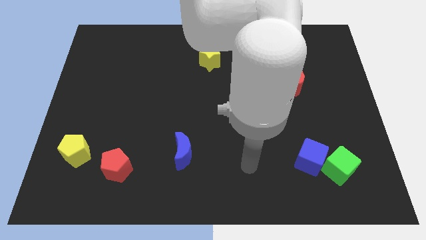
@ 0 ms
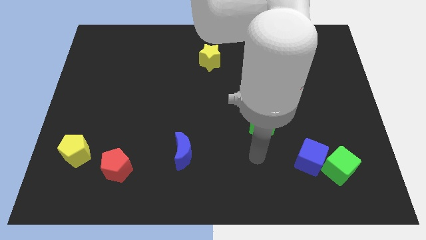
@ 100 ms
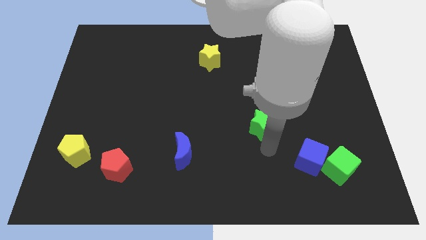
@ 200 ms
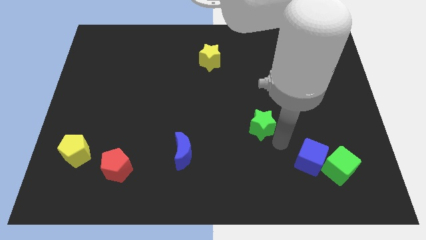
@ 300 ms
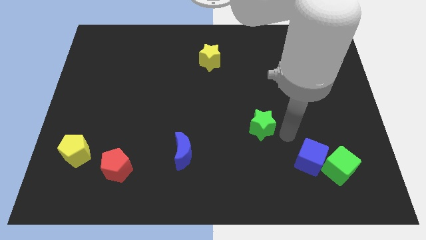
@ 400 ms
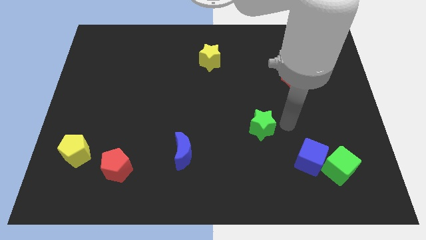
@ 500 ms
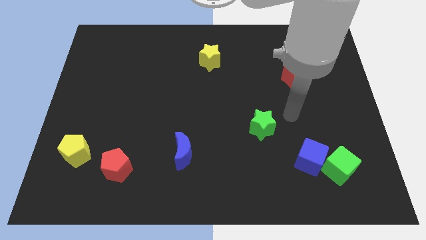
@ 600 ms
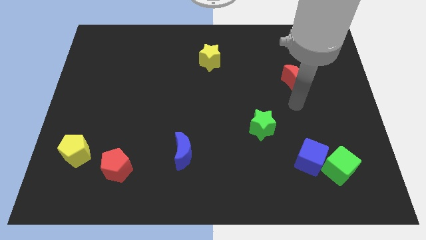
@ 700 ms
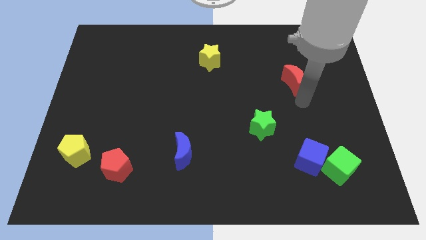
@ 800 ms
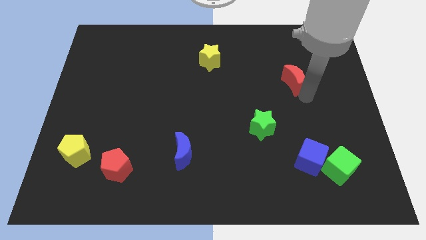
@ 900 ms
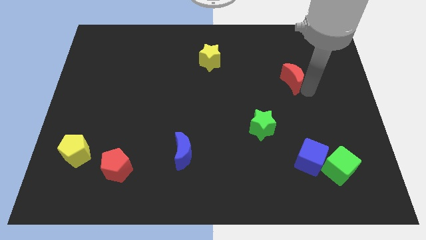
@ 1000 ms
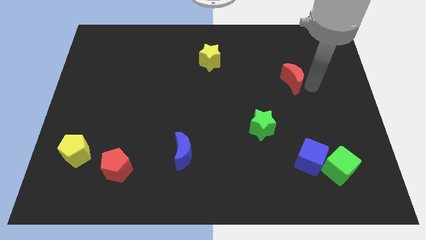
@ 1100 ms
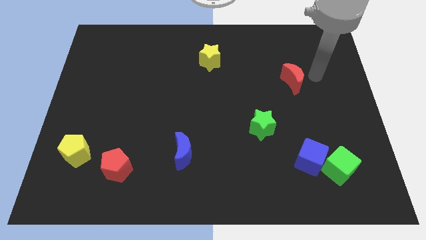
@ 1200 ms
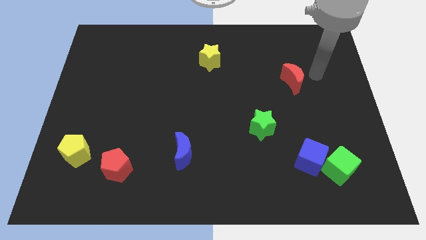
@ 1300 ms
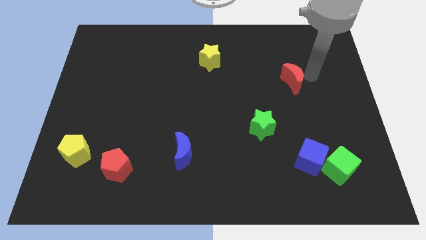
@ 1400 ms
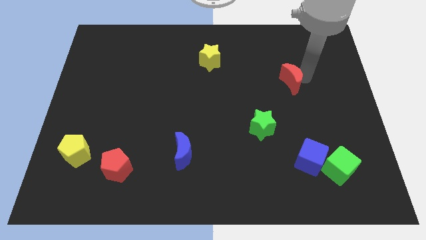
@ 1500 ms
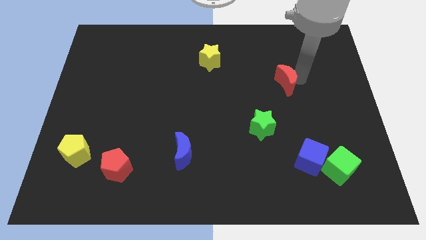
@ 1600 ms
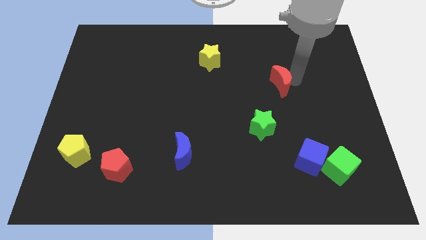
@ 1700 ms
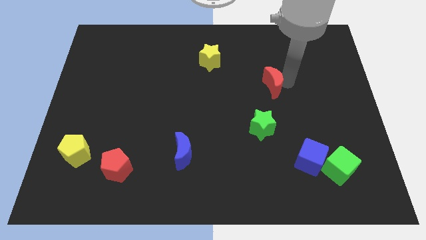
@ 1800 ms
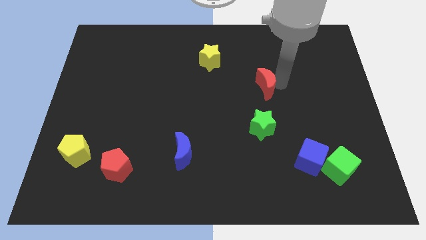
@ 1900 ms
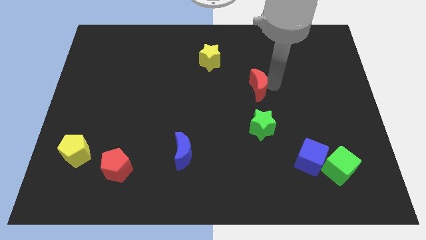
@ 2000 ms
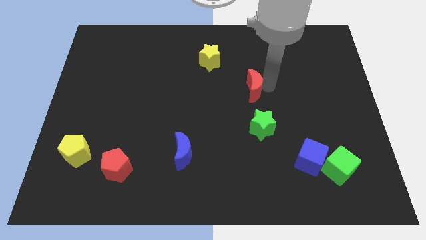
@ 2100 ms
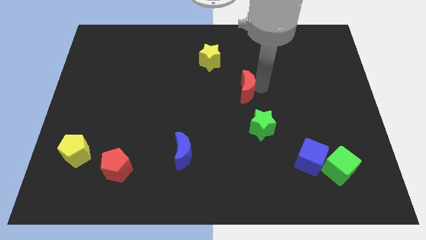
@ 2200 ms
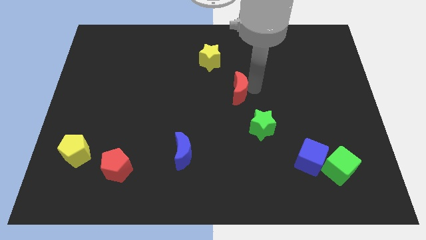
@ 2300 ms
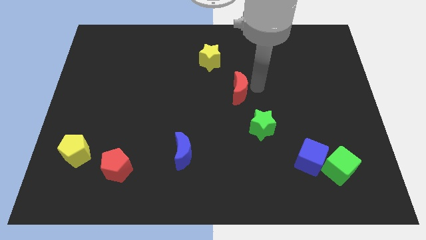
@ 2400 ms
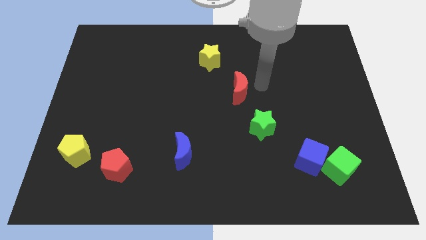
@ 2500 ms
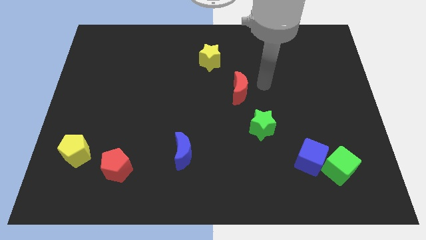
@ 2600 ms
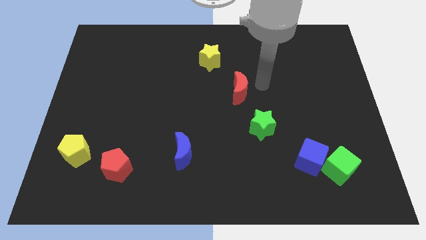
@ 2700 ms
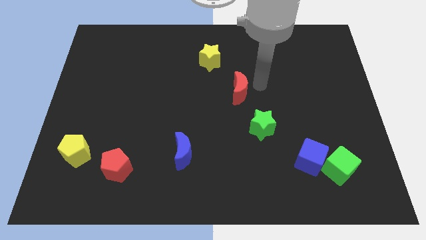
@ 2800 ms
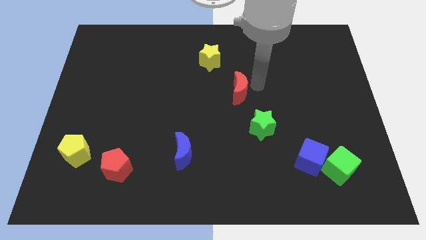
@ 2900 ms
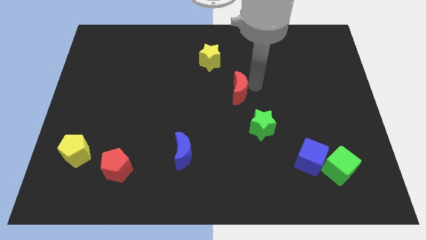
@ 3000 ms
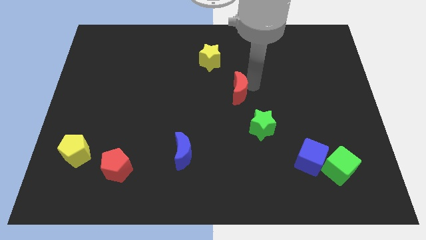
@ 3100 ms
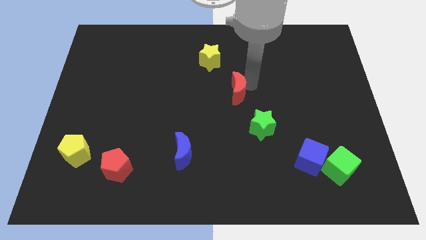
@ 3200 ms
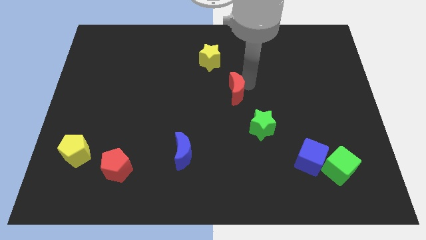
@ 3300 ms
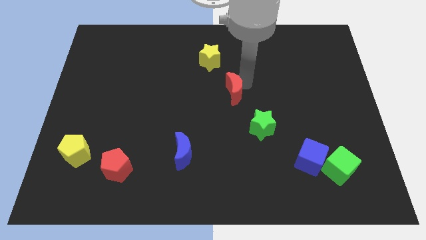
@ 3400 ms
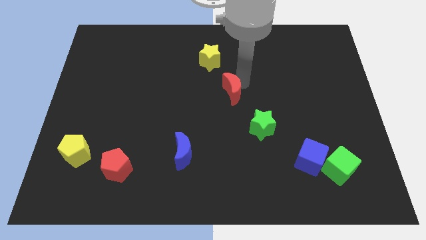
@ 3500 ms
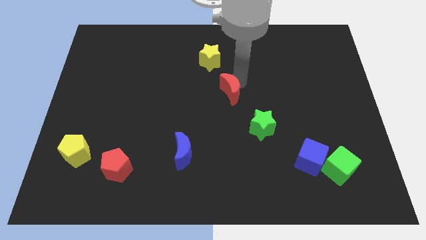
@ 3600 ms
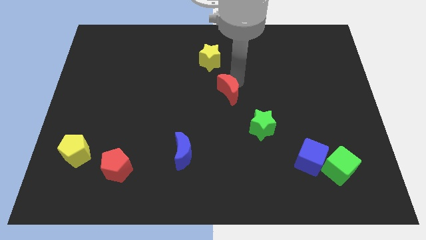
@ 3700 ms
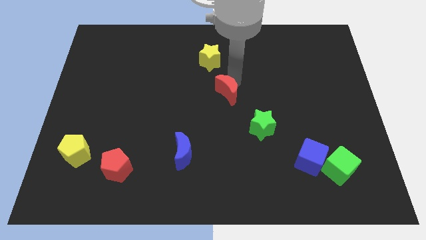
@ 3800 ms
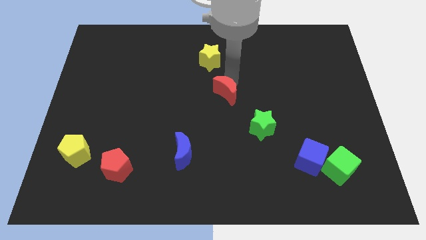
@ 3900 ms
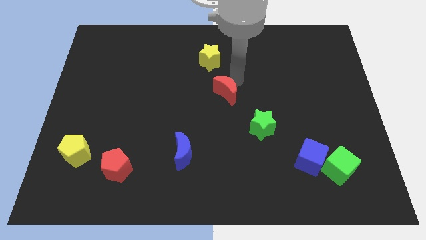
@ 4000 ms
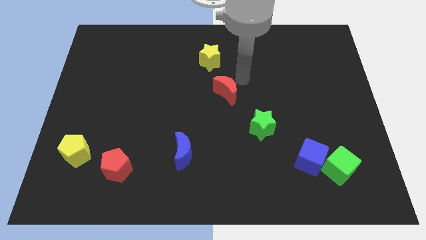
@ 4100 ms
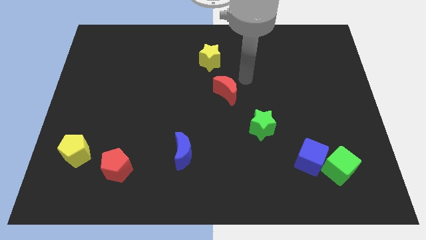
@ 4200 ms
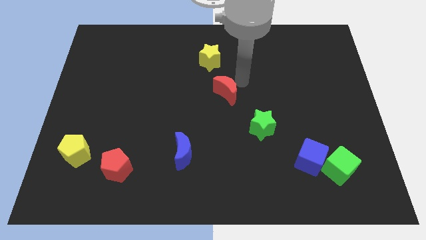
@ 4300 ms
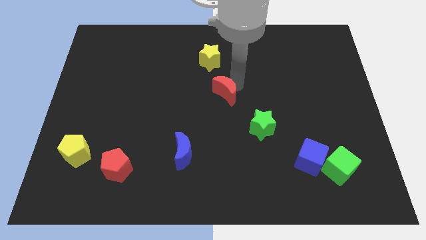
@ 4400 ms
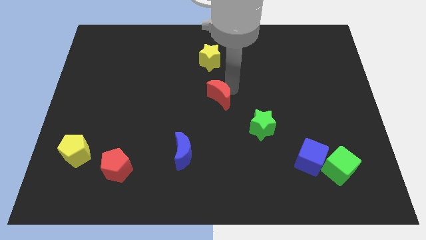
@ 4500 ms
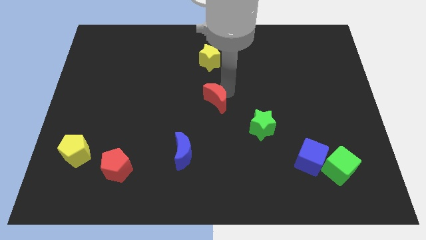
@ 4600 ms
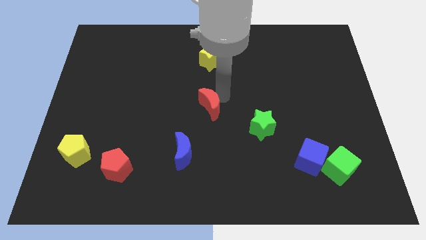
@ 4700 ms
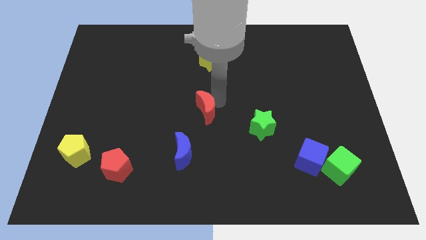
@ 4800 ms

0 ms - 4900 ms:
push the red moon above the blue moon

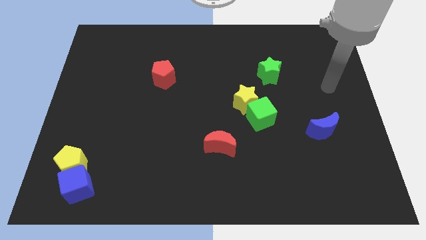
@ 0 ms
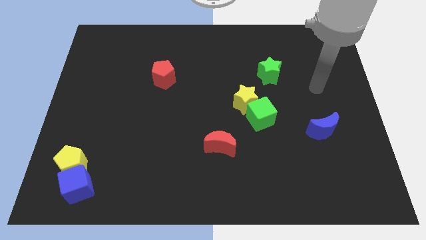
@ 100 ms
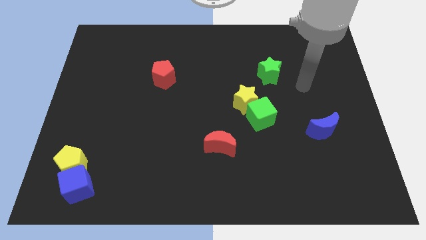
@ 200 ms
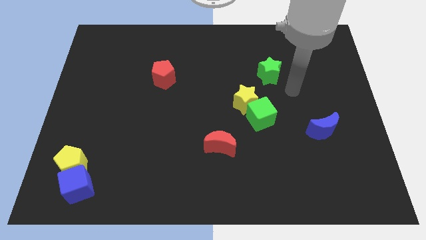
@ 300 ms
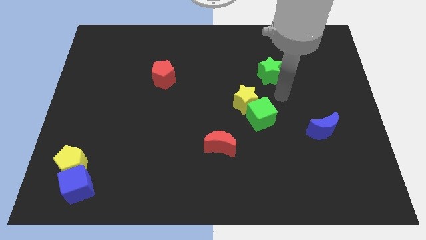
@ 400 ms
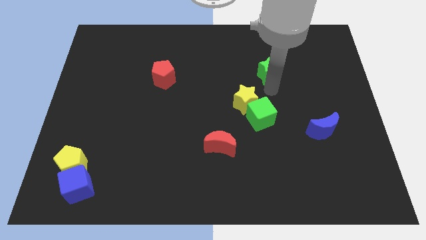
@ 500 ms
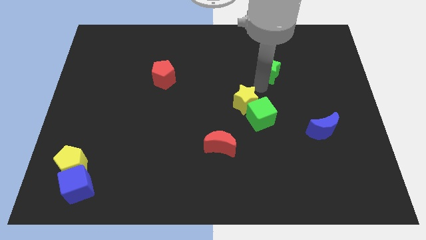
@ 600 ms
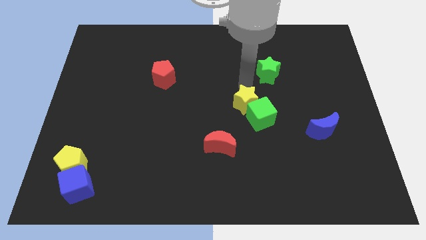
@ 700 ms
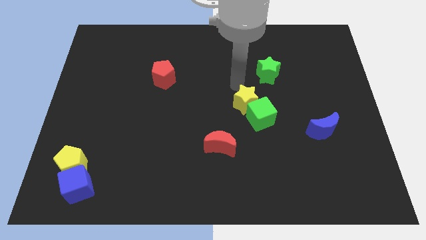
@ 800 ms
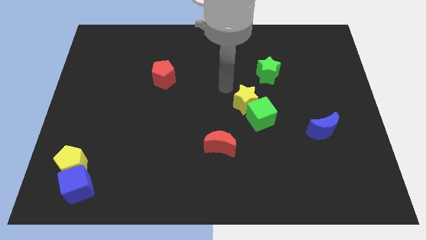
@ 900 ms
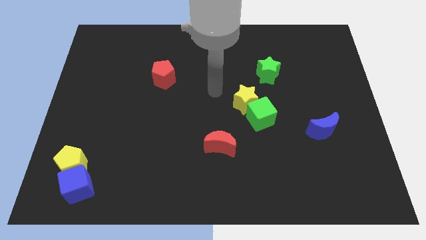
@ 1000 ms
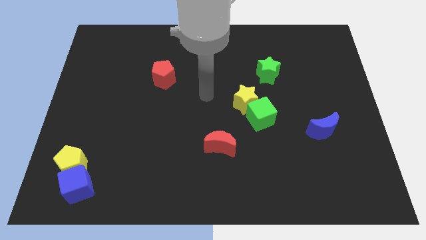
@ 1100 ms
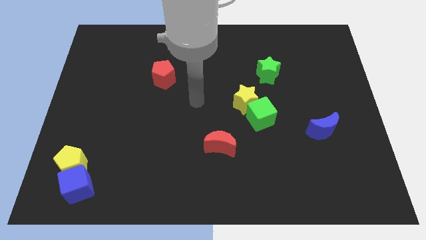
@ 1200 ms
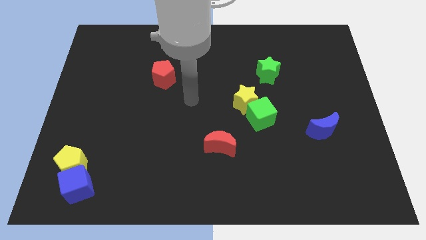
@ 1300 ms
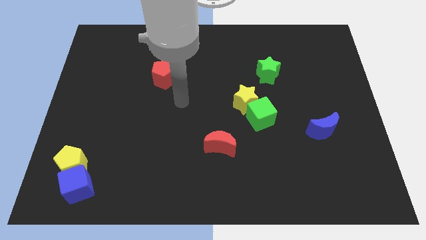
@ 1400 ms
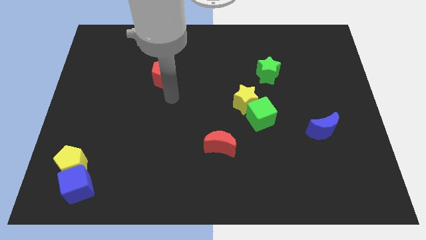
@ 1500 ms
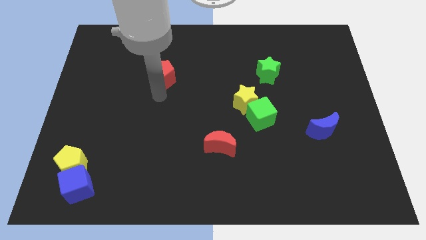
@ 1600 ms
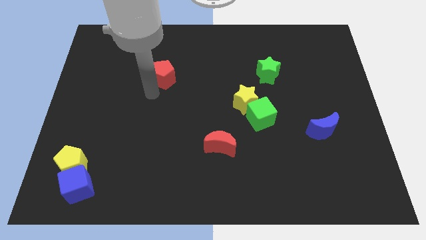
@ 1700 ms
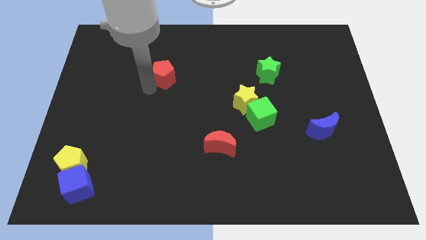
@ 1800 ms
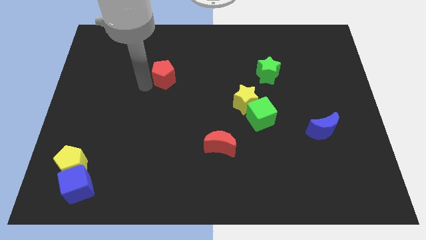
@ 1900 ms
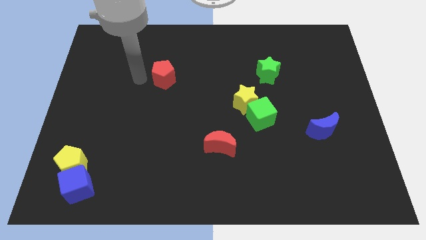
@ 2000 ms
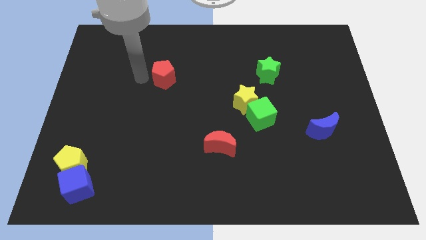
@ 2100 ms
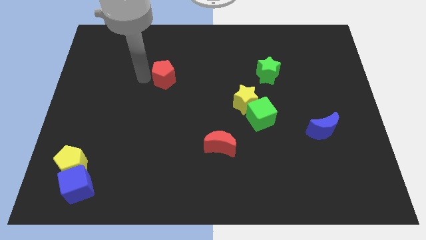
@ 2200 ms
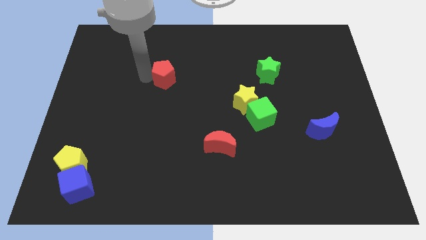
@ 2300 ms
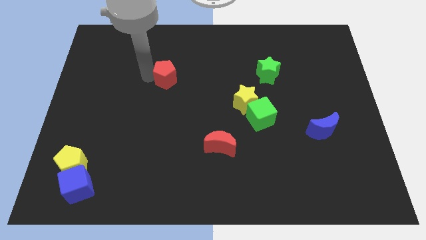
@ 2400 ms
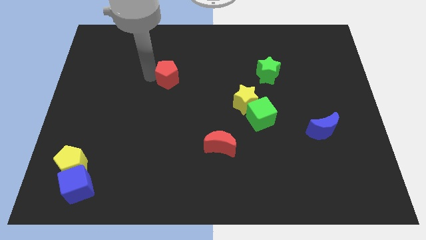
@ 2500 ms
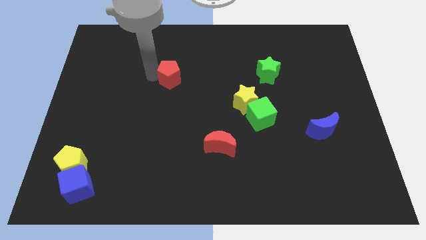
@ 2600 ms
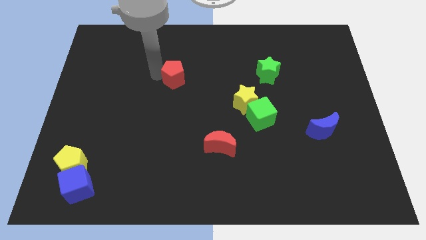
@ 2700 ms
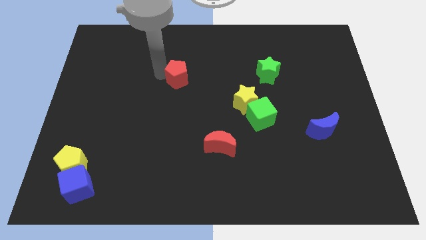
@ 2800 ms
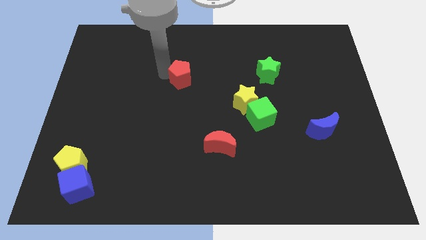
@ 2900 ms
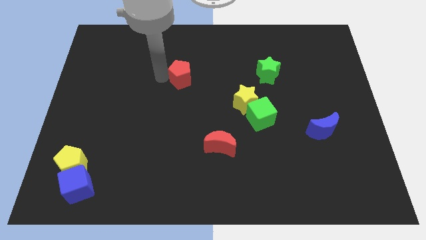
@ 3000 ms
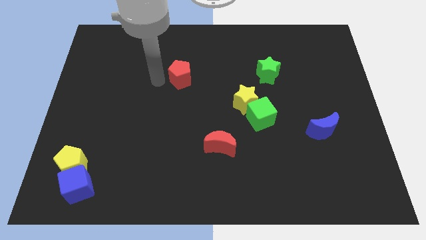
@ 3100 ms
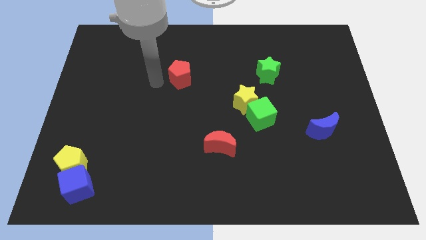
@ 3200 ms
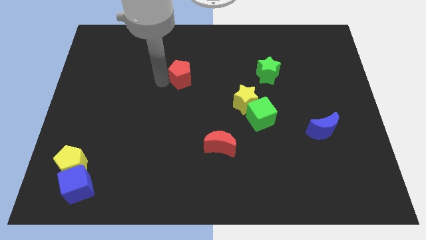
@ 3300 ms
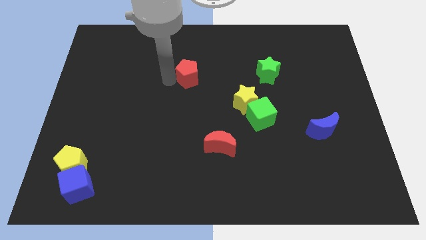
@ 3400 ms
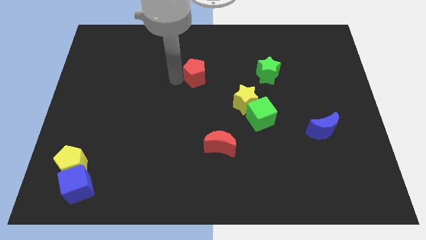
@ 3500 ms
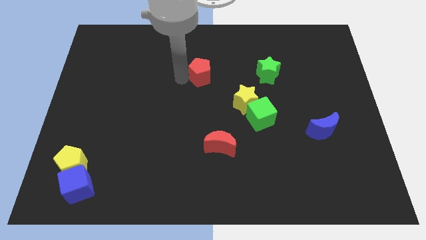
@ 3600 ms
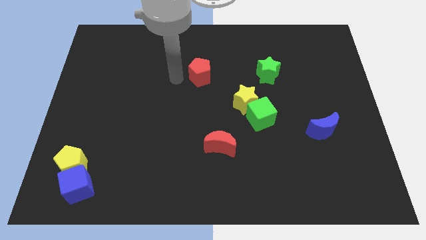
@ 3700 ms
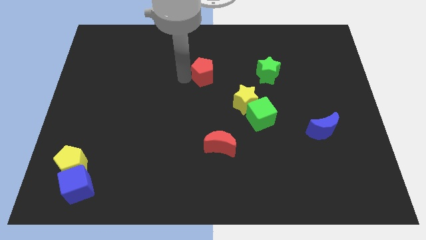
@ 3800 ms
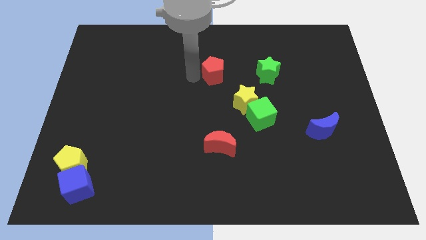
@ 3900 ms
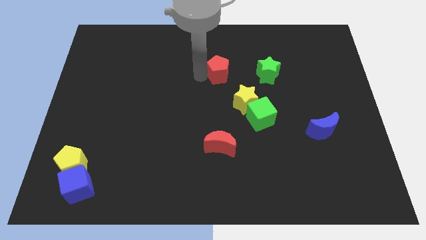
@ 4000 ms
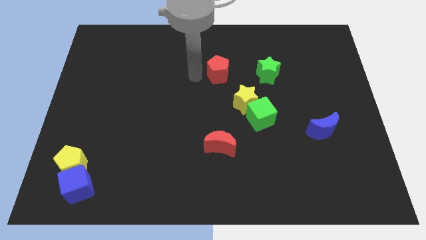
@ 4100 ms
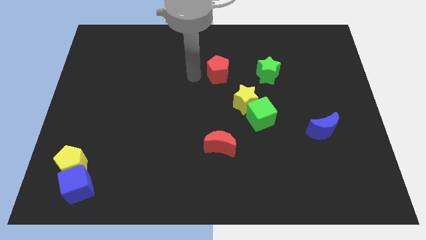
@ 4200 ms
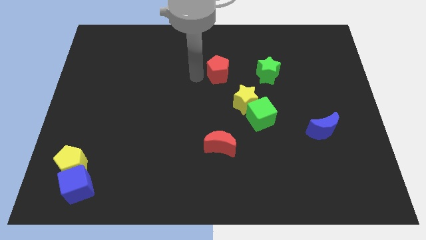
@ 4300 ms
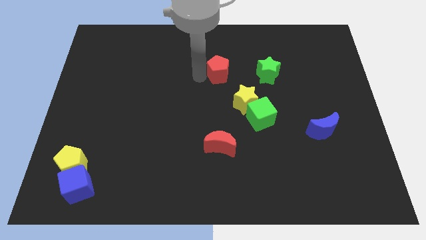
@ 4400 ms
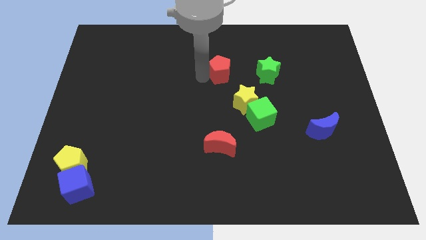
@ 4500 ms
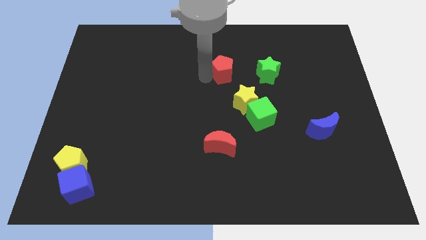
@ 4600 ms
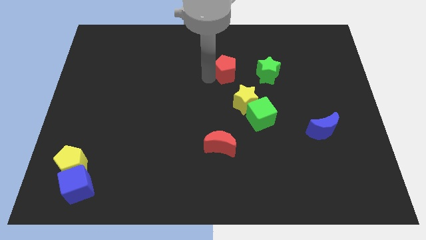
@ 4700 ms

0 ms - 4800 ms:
push the red pentagon above the yellow star
